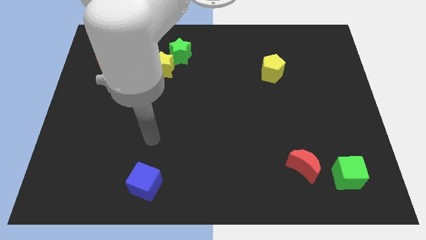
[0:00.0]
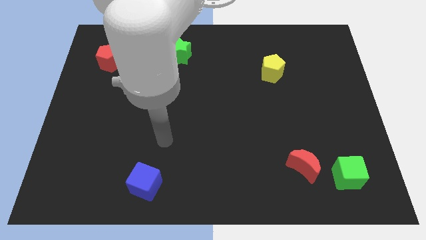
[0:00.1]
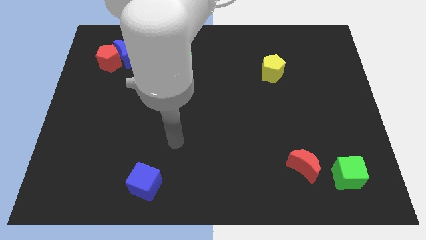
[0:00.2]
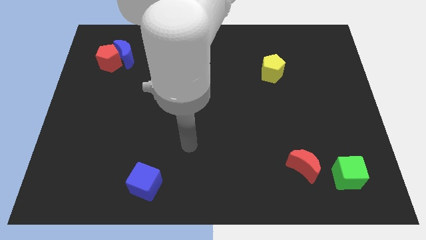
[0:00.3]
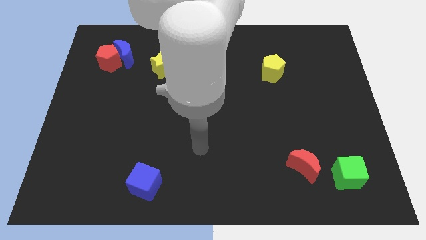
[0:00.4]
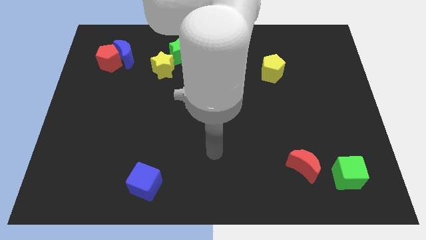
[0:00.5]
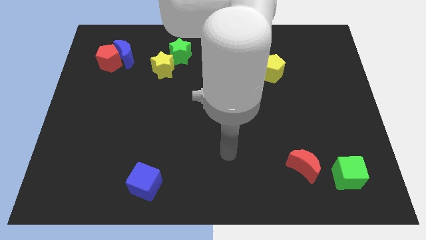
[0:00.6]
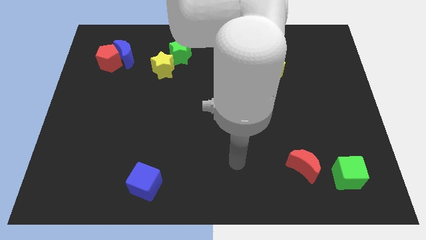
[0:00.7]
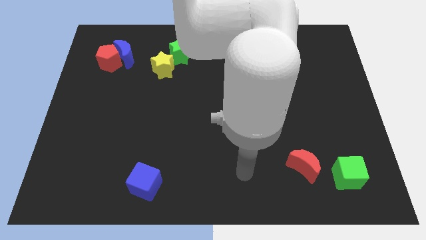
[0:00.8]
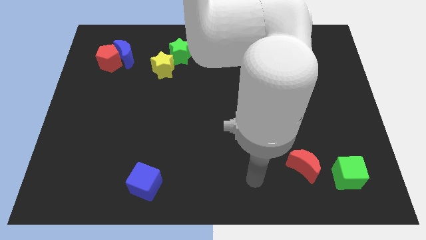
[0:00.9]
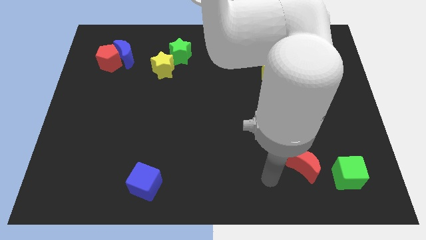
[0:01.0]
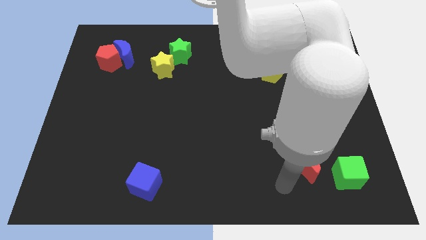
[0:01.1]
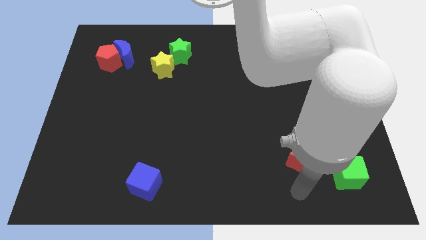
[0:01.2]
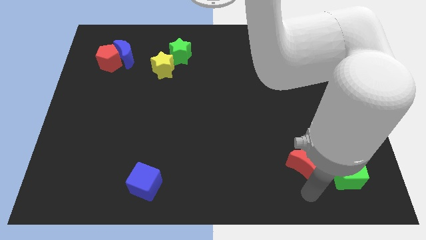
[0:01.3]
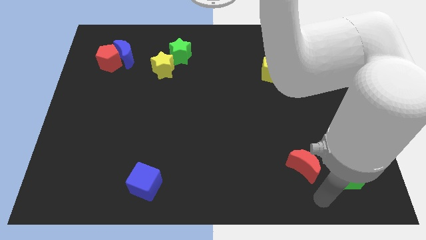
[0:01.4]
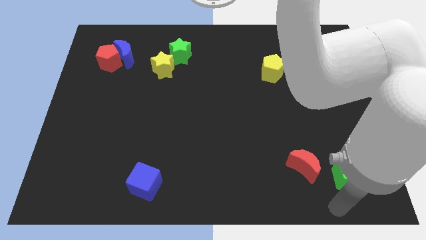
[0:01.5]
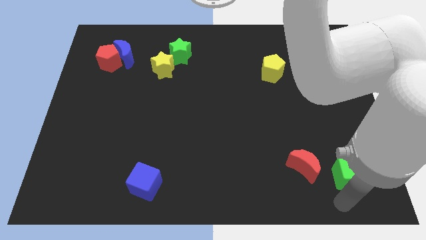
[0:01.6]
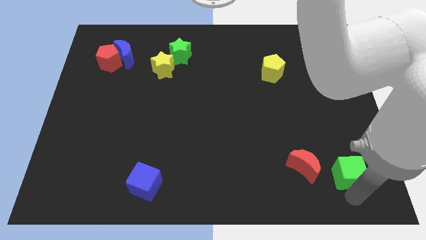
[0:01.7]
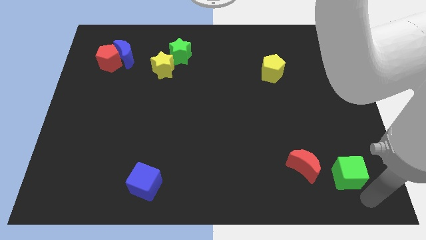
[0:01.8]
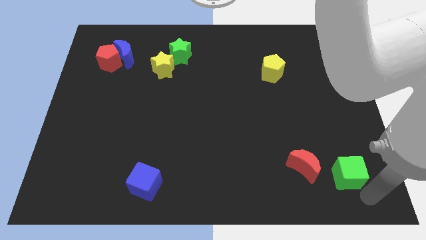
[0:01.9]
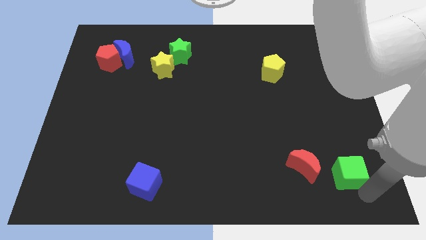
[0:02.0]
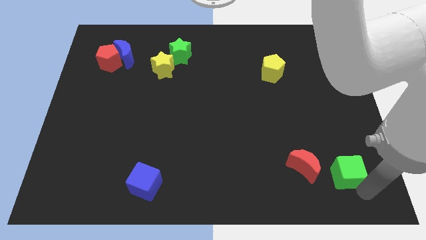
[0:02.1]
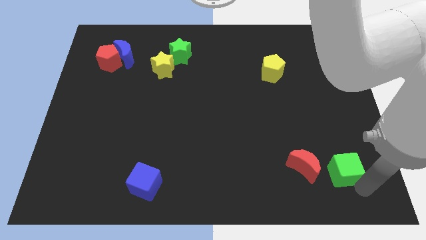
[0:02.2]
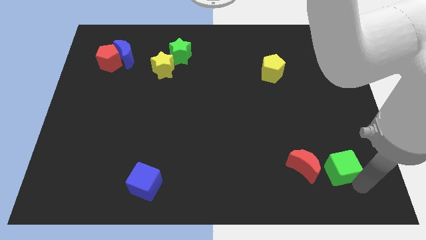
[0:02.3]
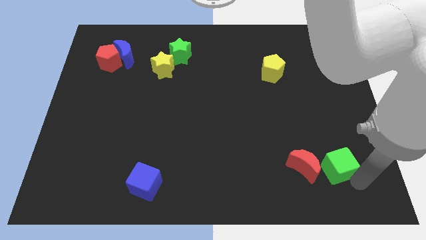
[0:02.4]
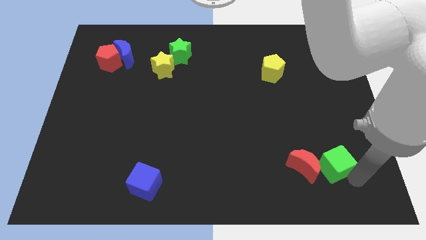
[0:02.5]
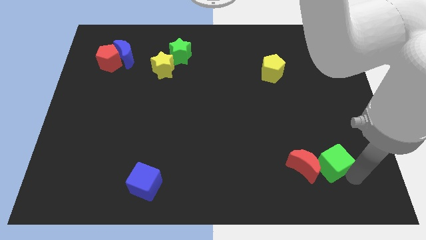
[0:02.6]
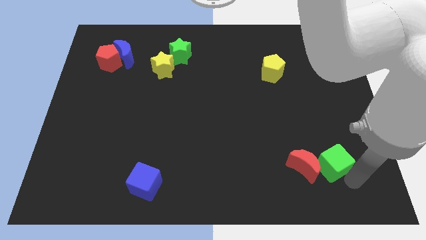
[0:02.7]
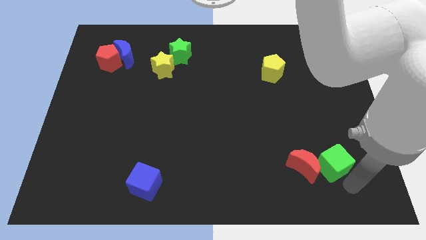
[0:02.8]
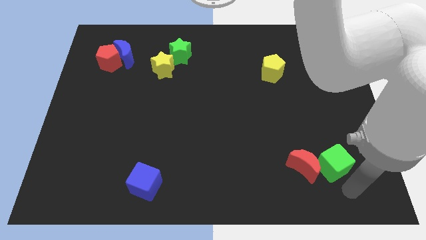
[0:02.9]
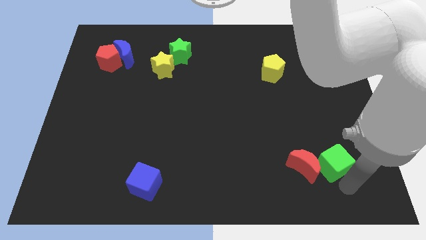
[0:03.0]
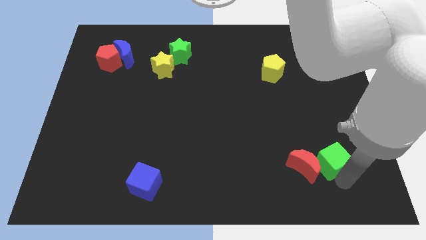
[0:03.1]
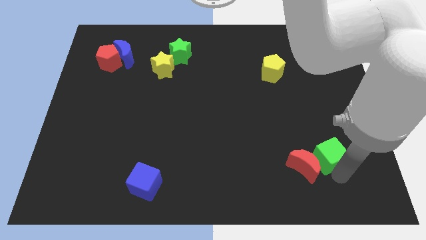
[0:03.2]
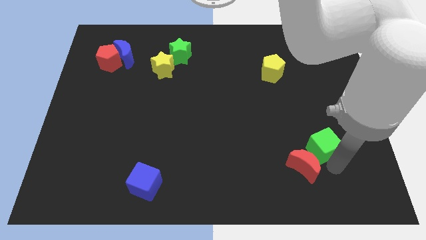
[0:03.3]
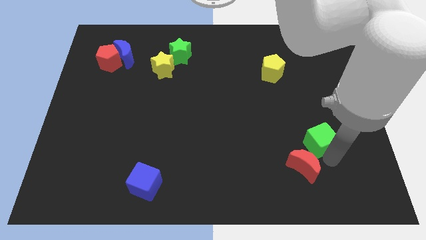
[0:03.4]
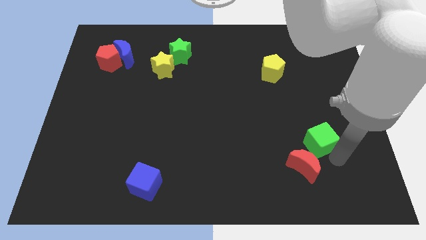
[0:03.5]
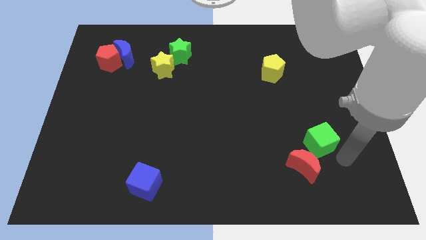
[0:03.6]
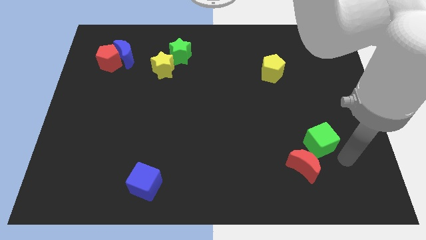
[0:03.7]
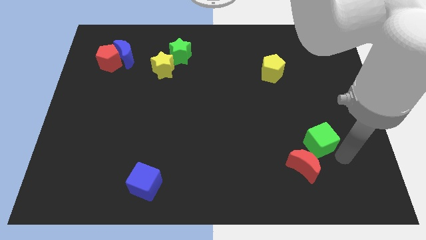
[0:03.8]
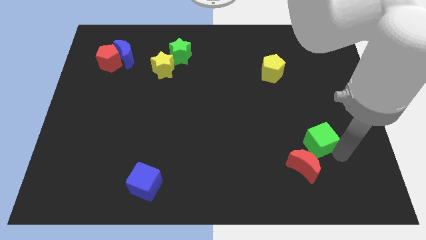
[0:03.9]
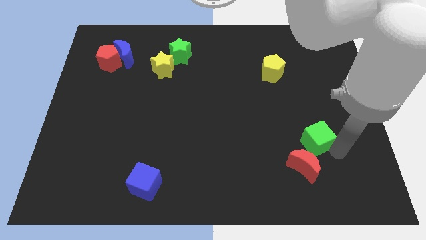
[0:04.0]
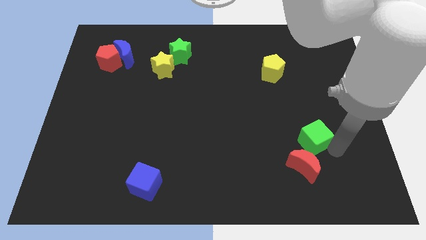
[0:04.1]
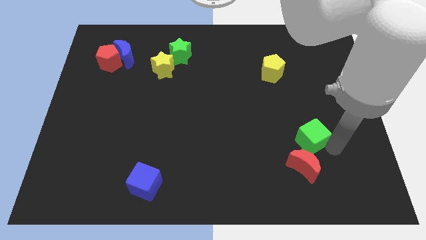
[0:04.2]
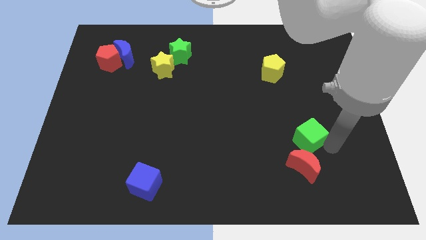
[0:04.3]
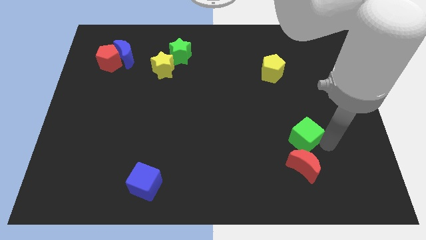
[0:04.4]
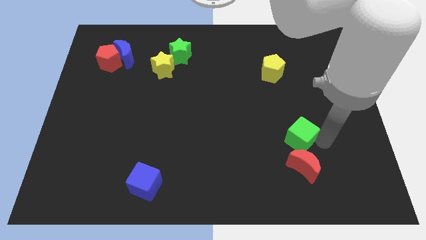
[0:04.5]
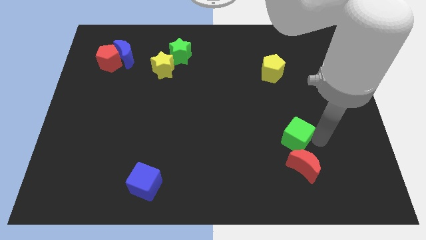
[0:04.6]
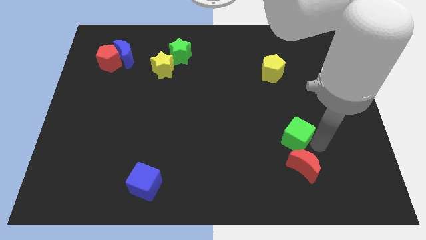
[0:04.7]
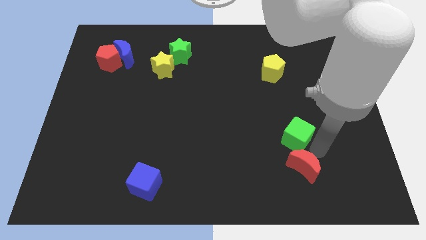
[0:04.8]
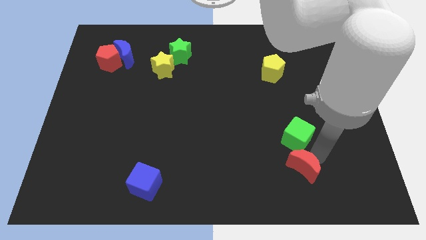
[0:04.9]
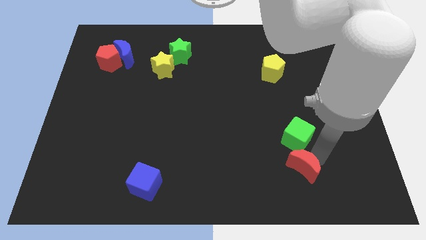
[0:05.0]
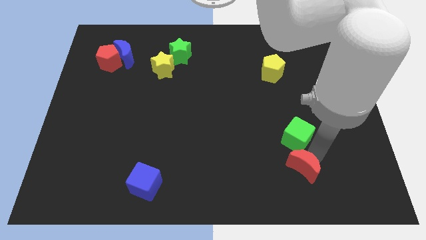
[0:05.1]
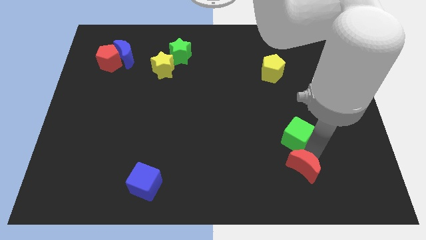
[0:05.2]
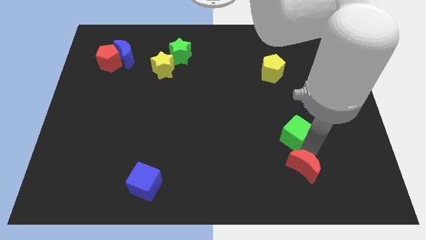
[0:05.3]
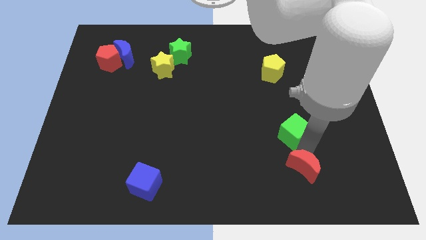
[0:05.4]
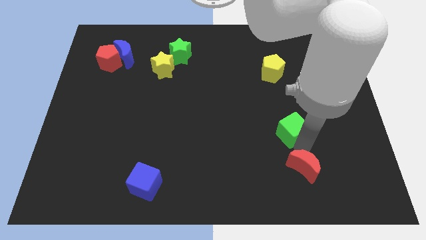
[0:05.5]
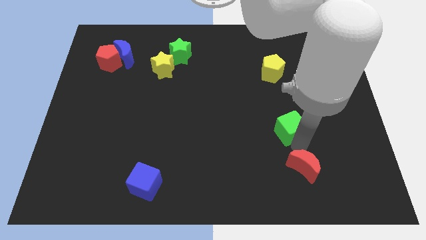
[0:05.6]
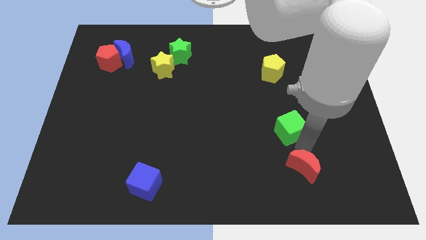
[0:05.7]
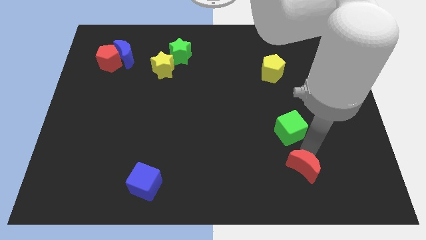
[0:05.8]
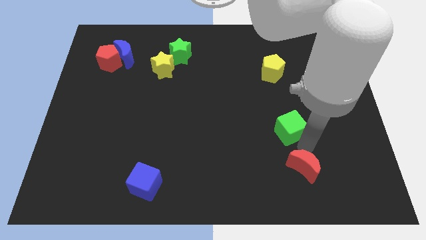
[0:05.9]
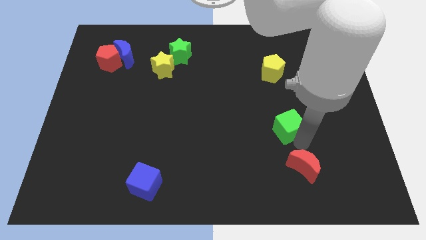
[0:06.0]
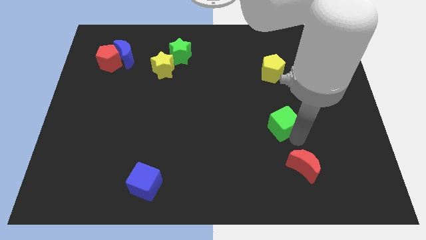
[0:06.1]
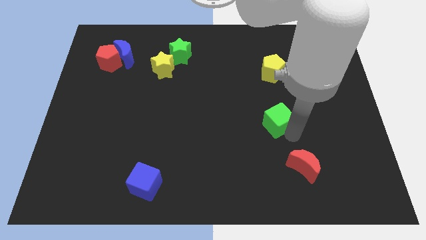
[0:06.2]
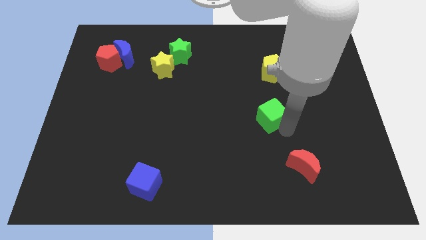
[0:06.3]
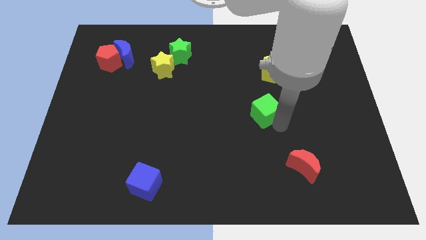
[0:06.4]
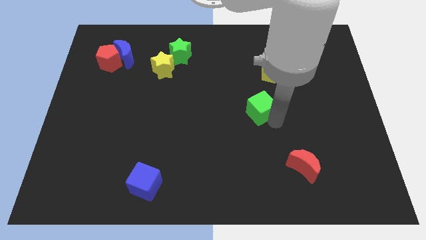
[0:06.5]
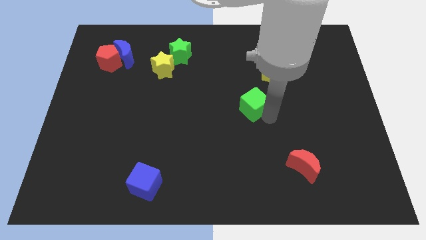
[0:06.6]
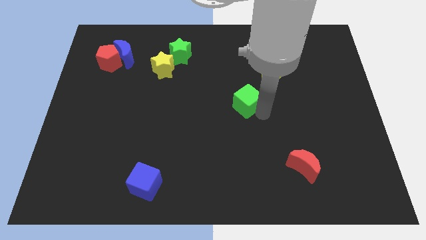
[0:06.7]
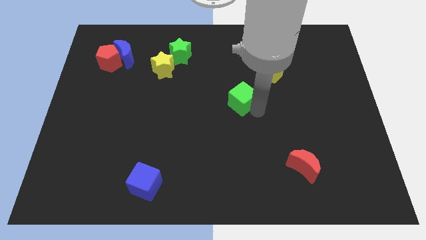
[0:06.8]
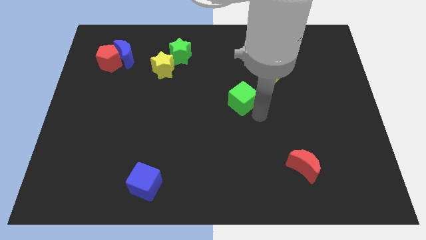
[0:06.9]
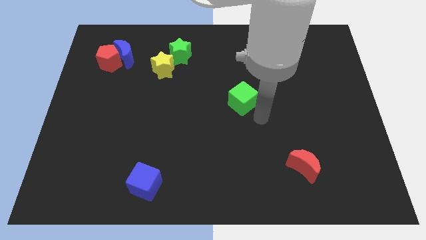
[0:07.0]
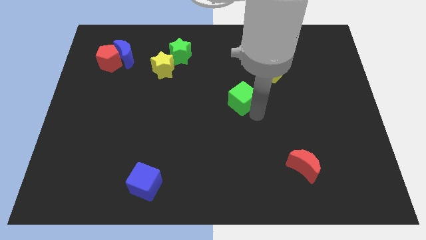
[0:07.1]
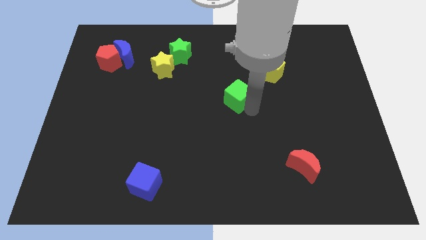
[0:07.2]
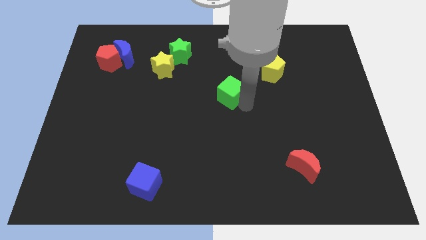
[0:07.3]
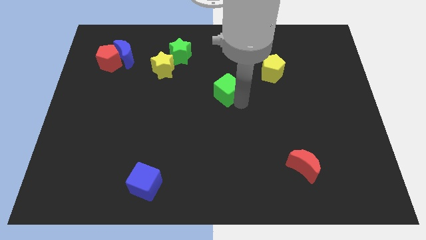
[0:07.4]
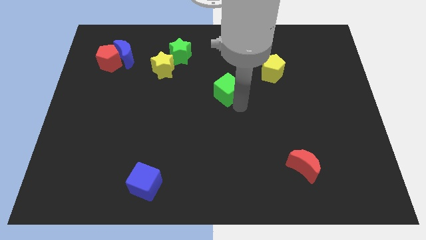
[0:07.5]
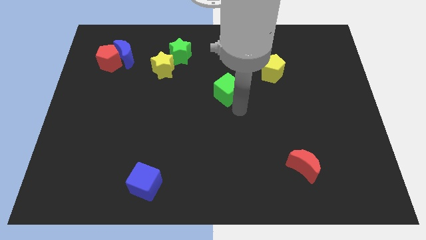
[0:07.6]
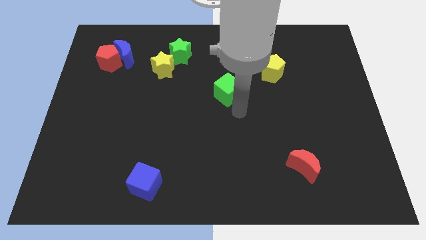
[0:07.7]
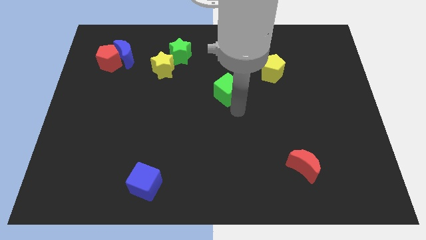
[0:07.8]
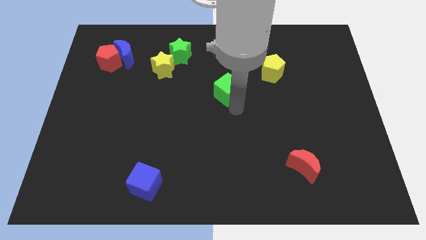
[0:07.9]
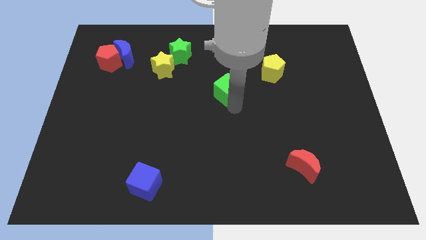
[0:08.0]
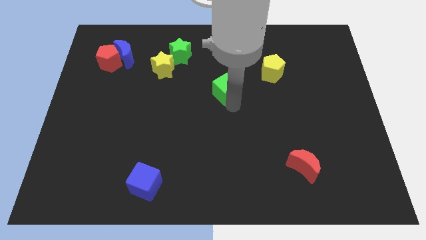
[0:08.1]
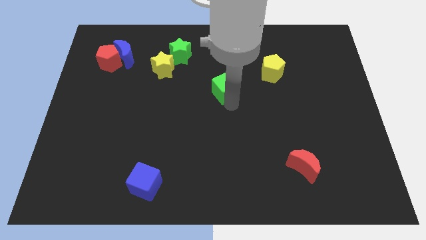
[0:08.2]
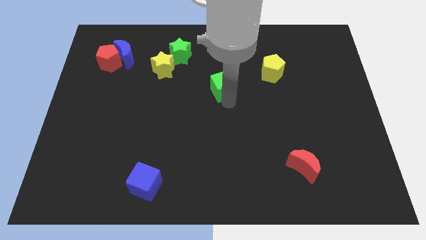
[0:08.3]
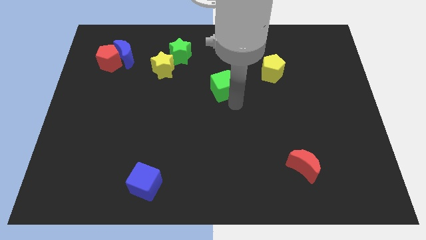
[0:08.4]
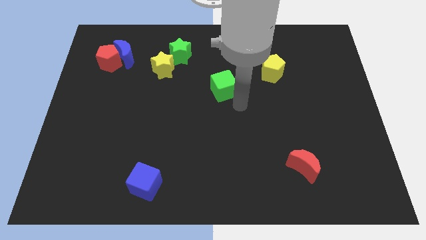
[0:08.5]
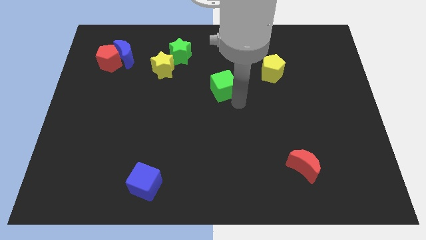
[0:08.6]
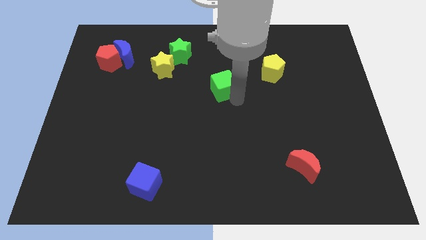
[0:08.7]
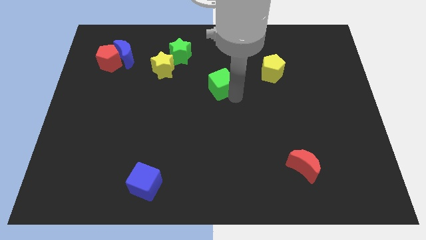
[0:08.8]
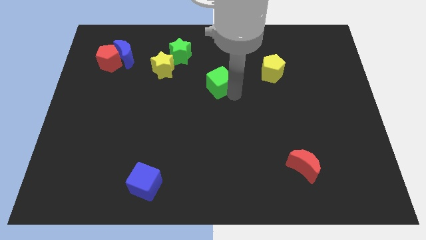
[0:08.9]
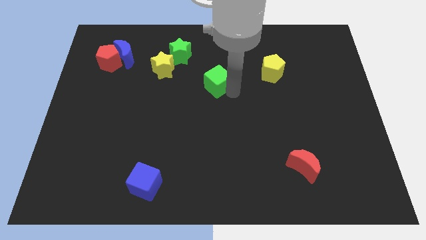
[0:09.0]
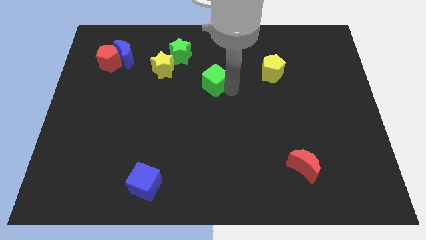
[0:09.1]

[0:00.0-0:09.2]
slide the green cube to the right of the yellow star
